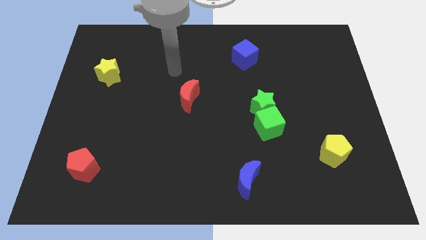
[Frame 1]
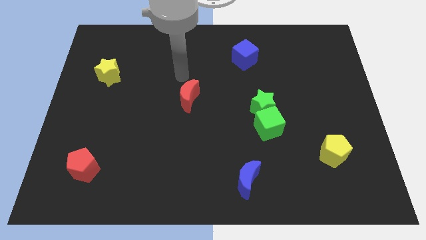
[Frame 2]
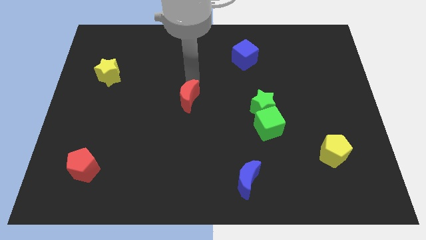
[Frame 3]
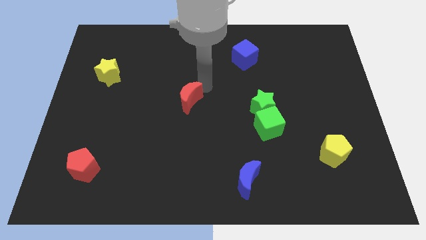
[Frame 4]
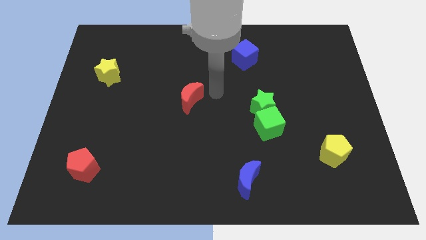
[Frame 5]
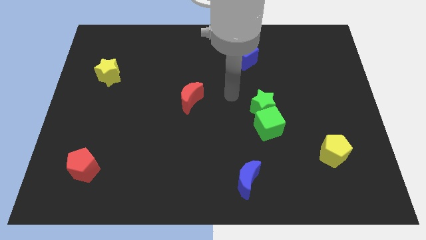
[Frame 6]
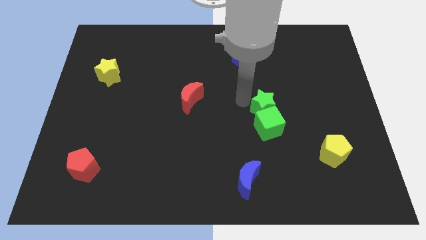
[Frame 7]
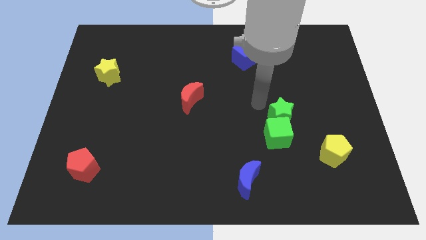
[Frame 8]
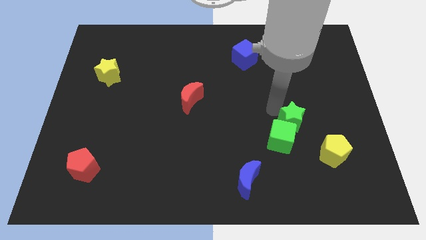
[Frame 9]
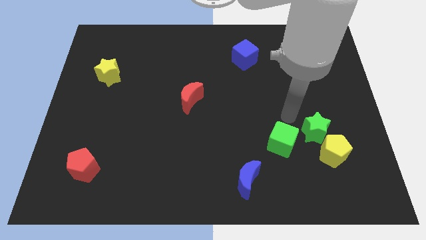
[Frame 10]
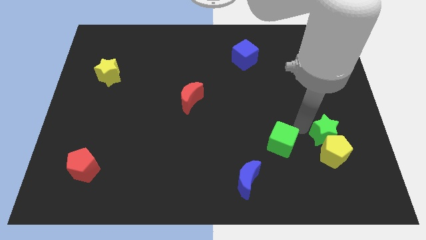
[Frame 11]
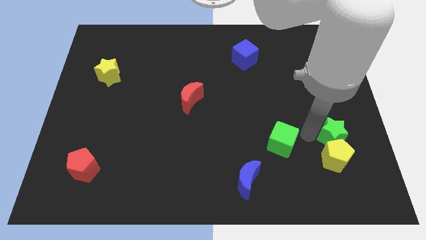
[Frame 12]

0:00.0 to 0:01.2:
move the green cube away from the green star

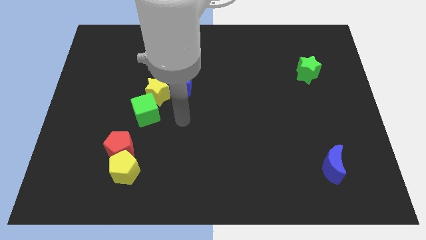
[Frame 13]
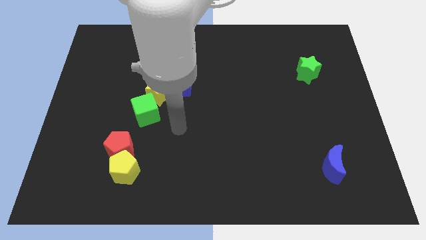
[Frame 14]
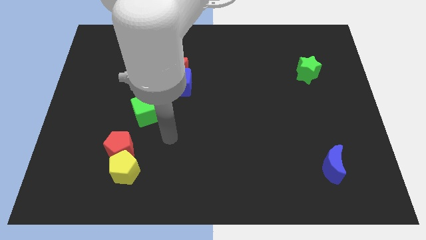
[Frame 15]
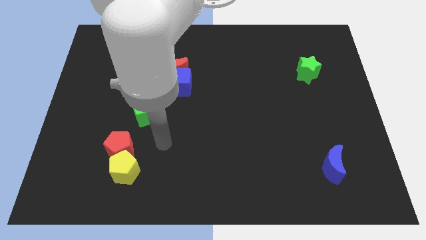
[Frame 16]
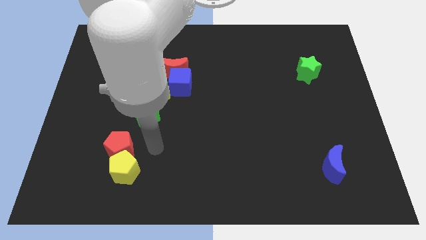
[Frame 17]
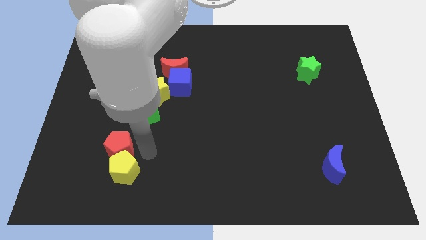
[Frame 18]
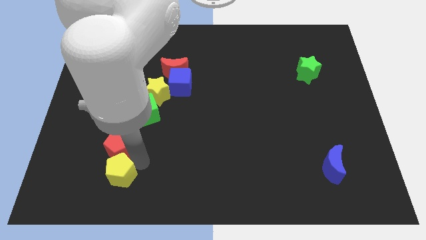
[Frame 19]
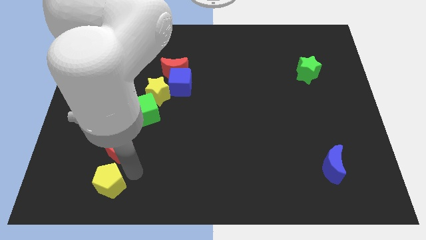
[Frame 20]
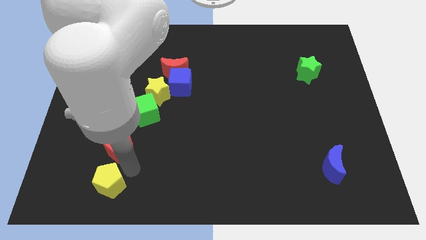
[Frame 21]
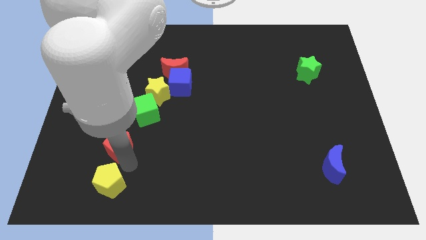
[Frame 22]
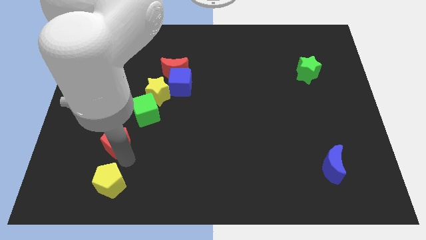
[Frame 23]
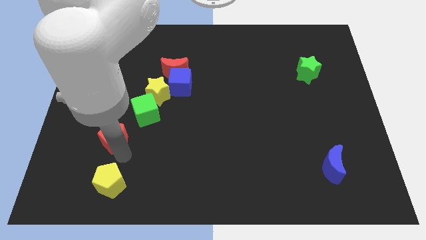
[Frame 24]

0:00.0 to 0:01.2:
pull the red pentagon apart from the yellow pentagon

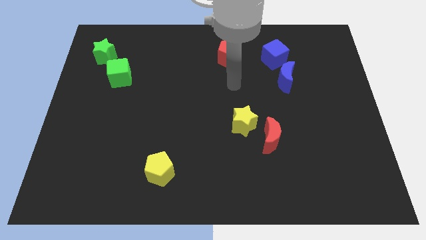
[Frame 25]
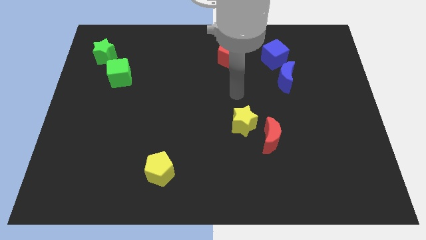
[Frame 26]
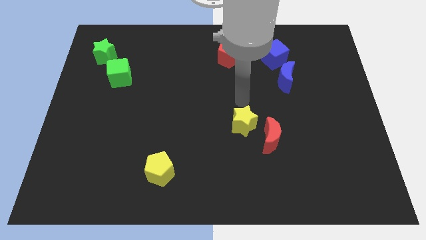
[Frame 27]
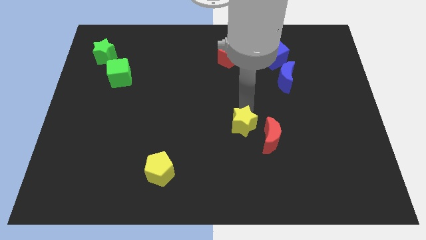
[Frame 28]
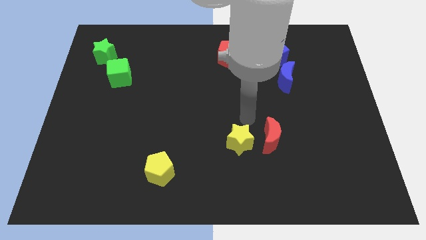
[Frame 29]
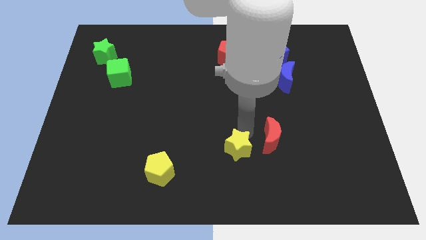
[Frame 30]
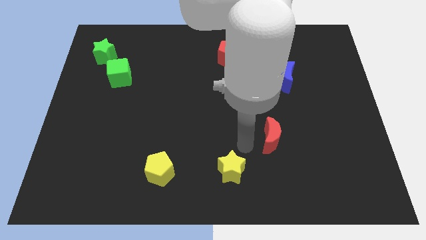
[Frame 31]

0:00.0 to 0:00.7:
separate the red moon from the yellow star

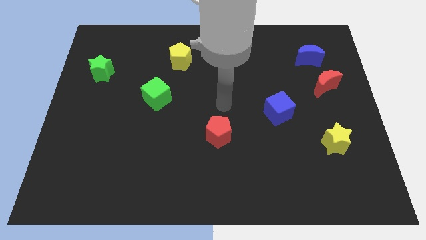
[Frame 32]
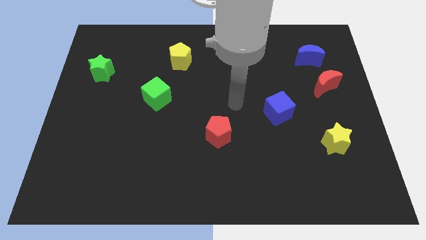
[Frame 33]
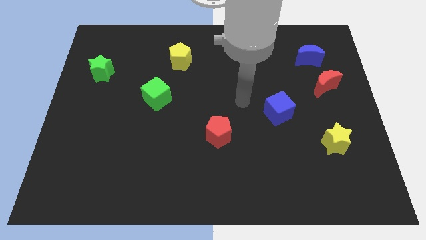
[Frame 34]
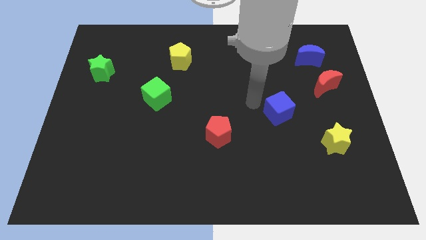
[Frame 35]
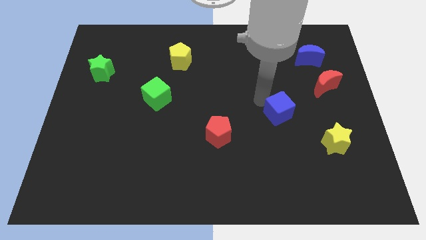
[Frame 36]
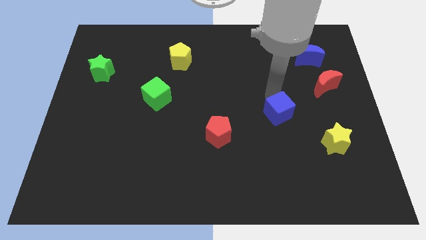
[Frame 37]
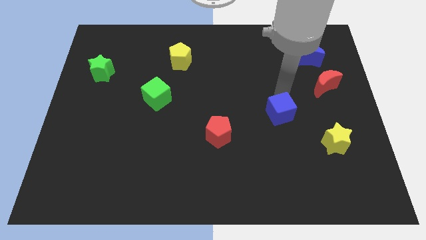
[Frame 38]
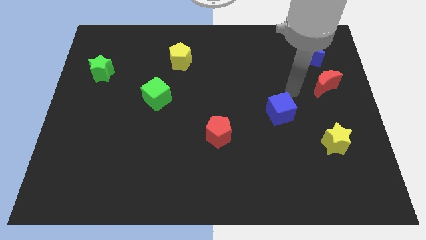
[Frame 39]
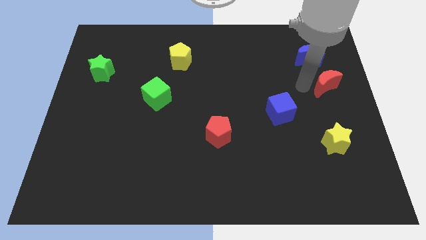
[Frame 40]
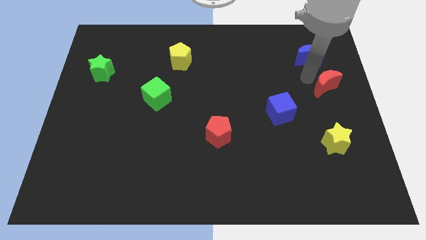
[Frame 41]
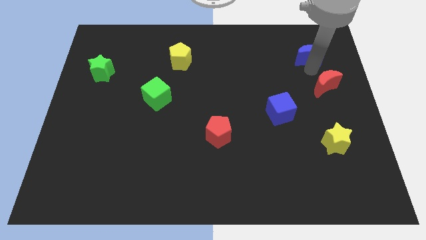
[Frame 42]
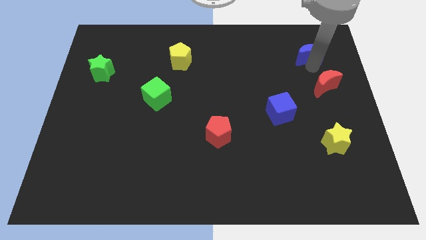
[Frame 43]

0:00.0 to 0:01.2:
separate the red moon from the blue moon

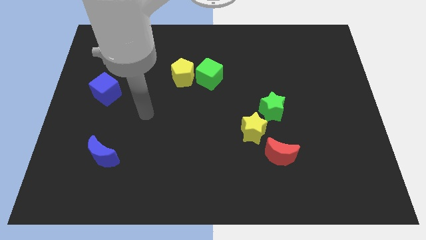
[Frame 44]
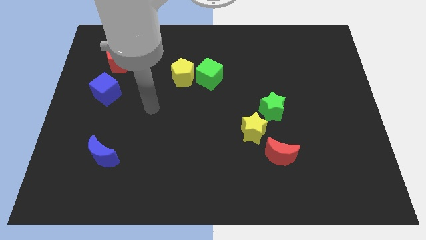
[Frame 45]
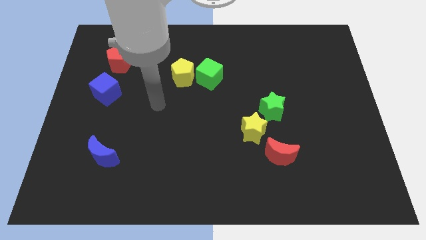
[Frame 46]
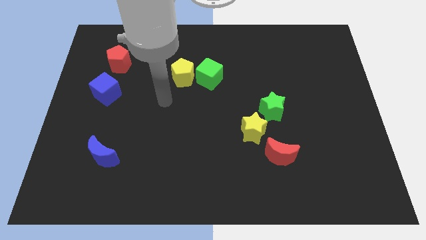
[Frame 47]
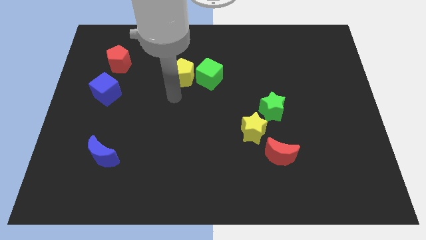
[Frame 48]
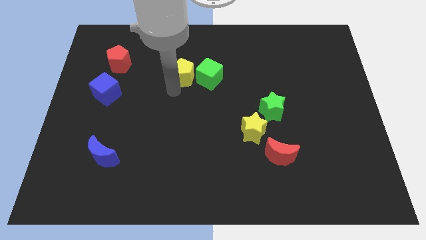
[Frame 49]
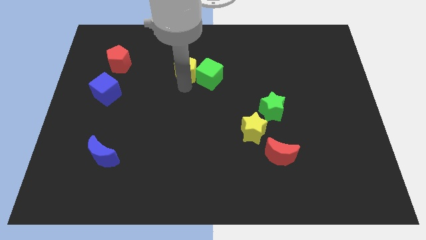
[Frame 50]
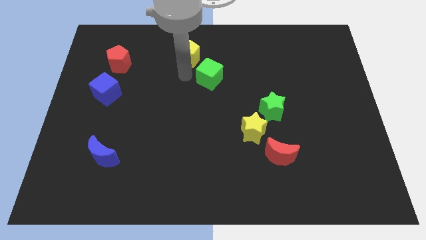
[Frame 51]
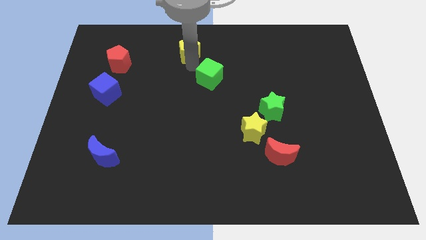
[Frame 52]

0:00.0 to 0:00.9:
pull the green cube apart from the yellow pentagon

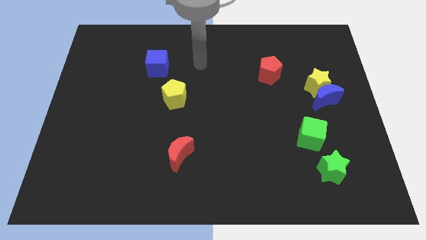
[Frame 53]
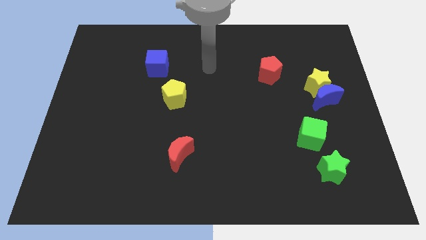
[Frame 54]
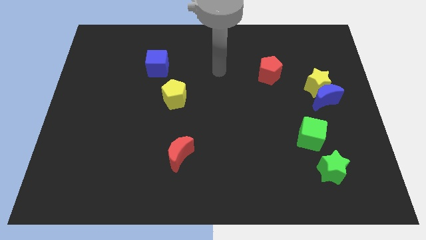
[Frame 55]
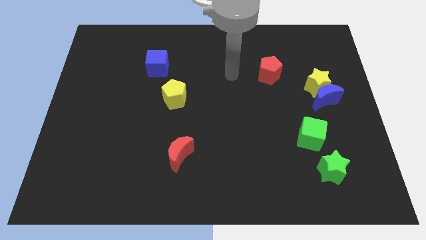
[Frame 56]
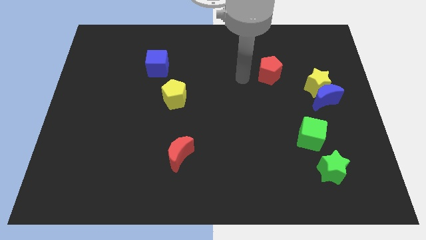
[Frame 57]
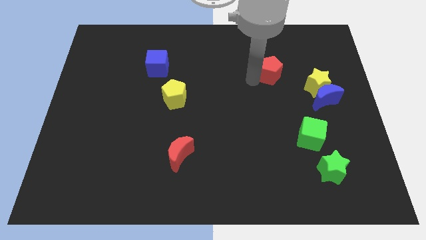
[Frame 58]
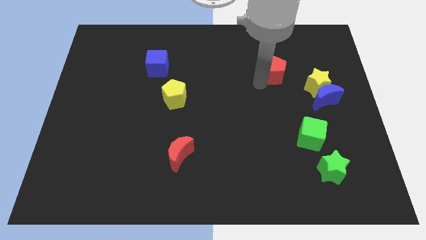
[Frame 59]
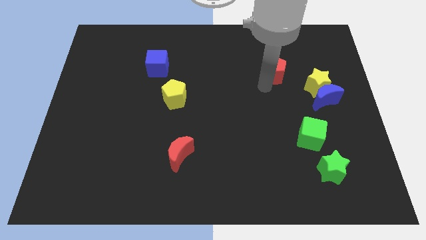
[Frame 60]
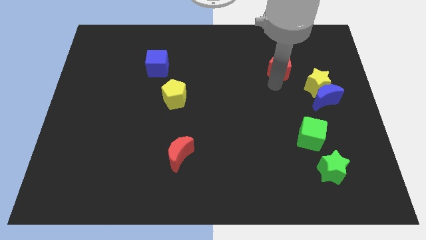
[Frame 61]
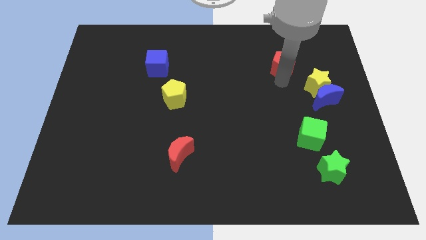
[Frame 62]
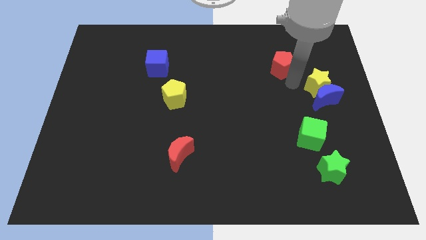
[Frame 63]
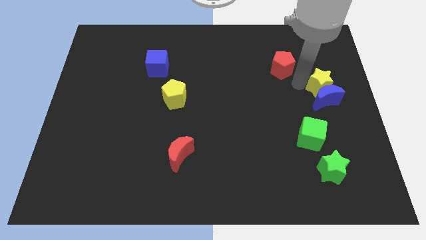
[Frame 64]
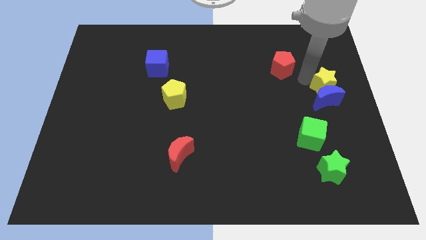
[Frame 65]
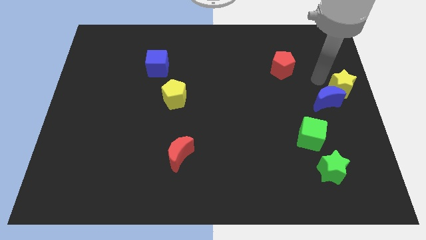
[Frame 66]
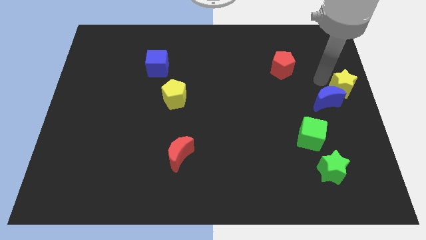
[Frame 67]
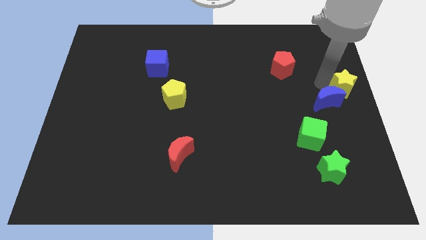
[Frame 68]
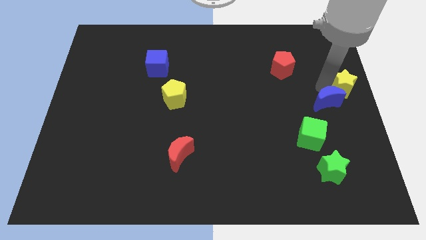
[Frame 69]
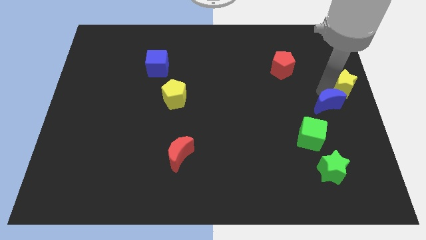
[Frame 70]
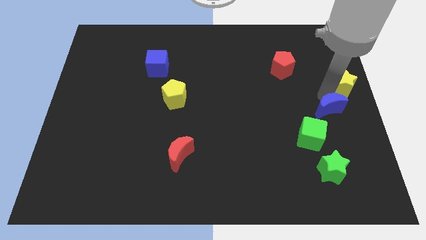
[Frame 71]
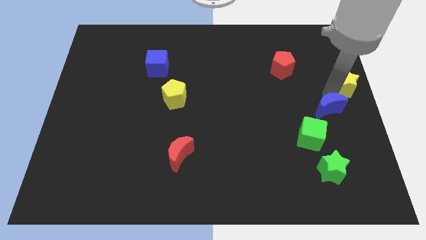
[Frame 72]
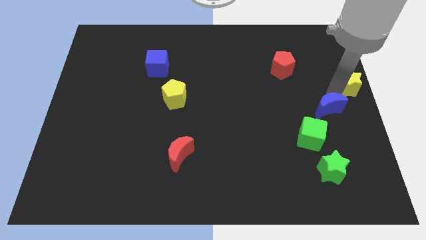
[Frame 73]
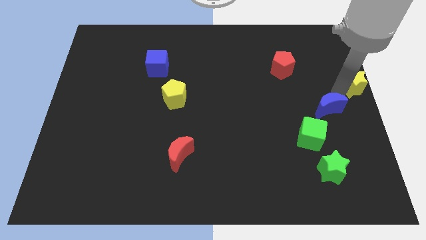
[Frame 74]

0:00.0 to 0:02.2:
pull the blue moon apart from the yellow star

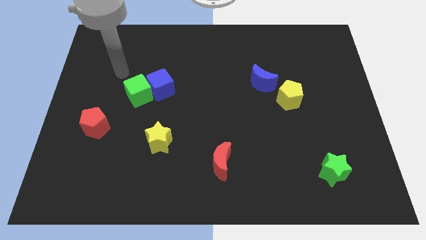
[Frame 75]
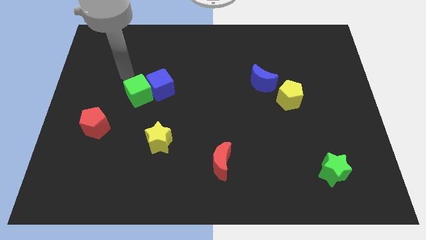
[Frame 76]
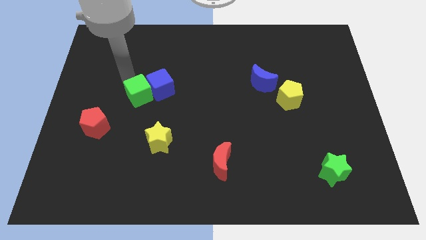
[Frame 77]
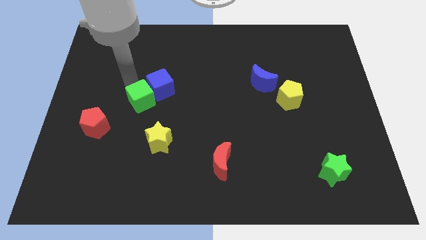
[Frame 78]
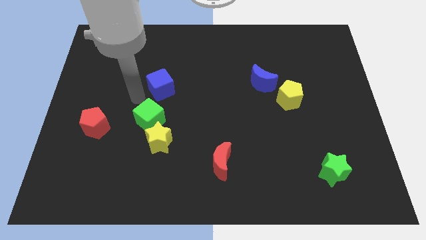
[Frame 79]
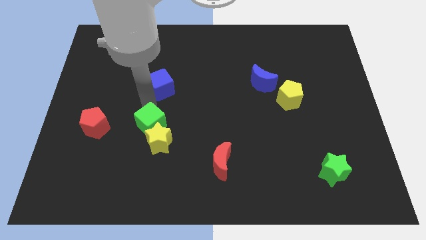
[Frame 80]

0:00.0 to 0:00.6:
pull the blue cube apart from the green cube

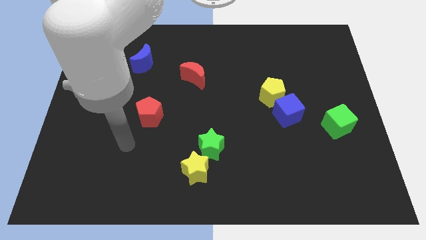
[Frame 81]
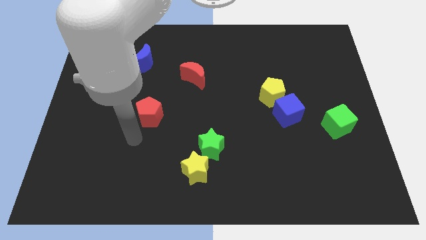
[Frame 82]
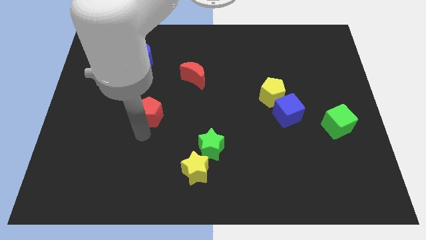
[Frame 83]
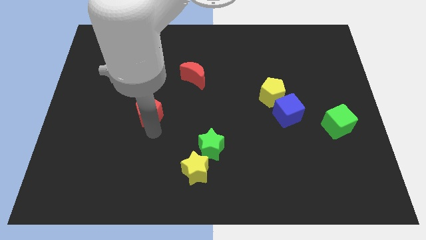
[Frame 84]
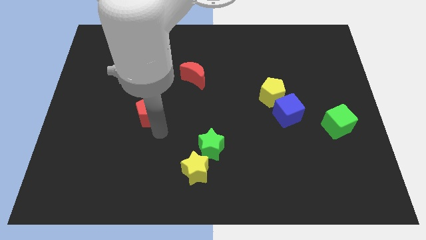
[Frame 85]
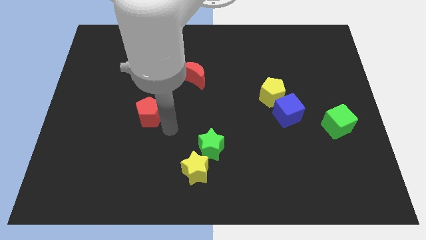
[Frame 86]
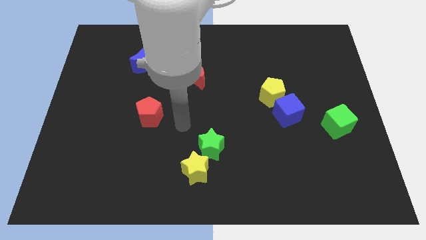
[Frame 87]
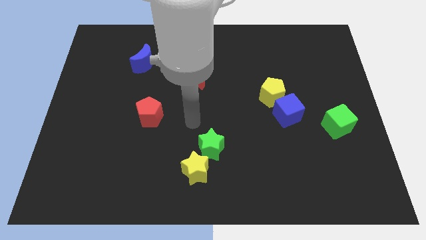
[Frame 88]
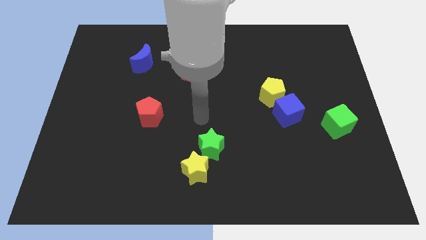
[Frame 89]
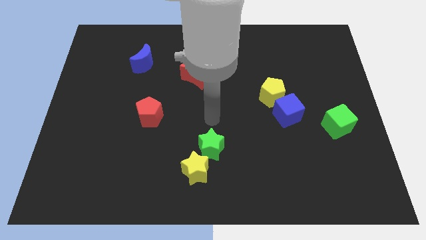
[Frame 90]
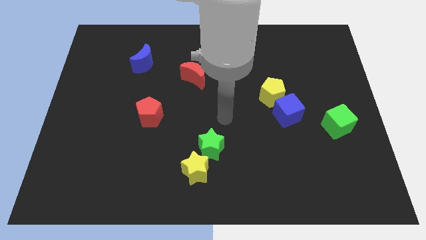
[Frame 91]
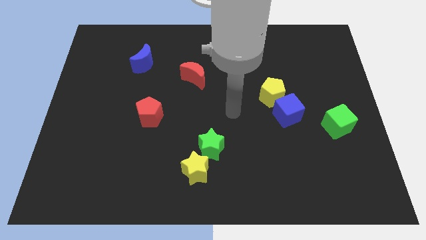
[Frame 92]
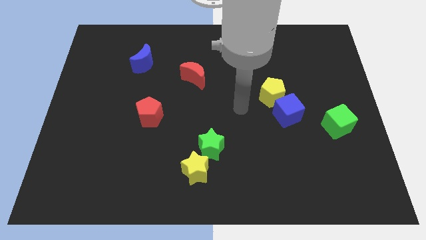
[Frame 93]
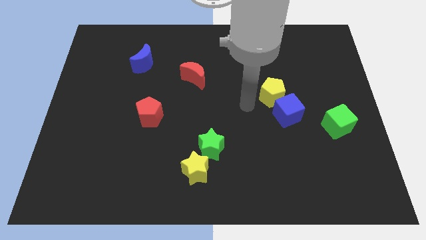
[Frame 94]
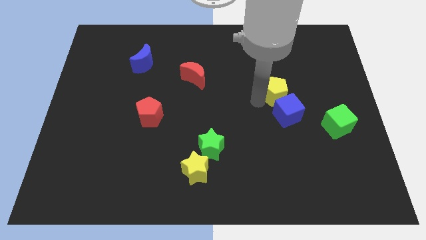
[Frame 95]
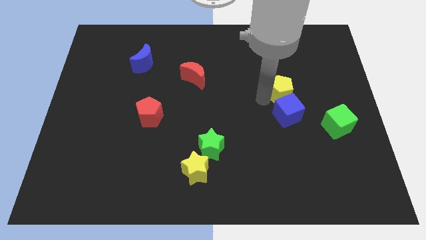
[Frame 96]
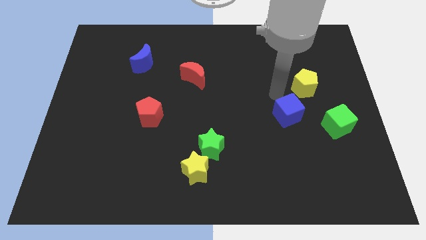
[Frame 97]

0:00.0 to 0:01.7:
separate the blue cube from the yellow pentagon
